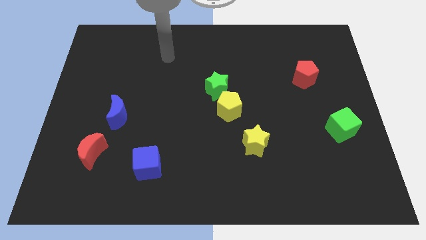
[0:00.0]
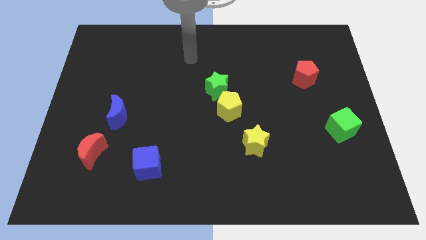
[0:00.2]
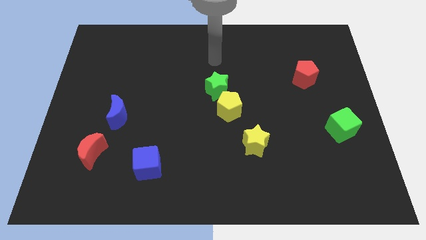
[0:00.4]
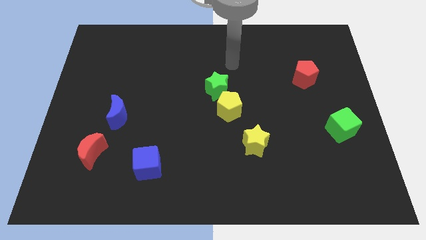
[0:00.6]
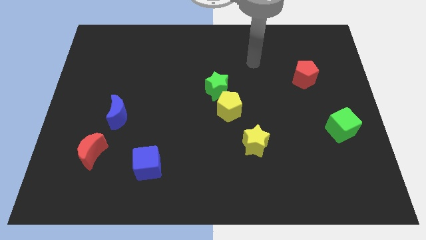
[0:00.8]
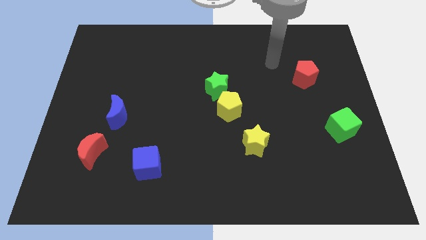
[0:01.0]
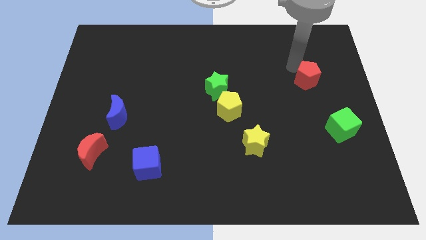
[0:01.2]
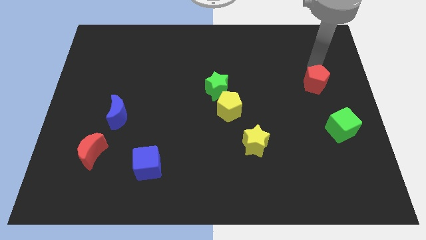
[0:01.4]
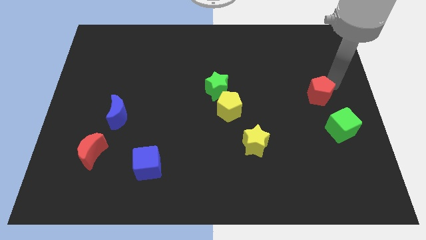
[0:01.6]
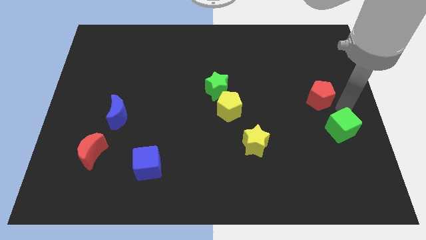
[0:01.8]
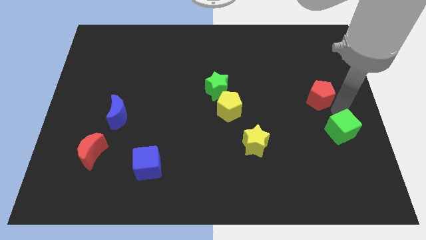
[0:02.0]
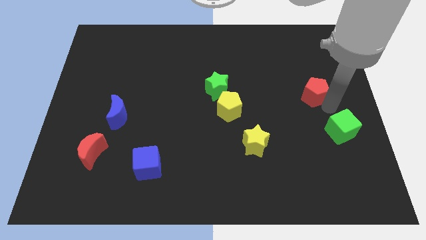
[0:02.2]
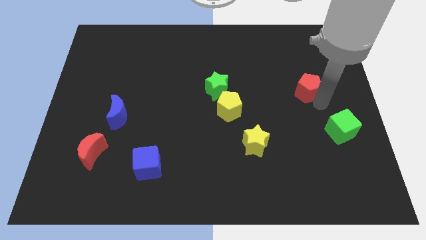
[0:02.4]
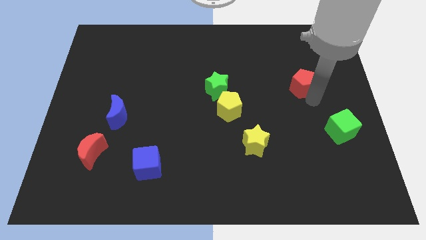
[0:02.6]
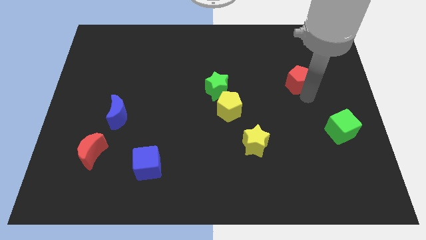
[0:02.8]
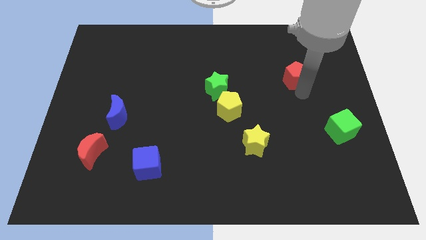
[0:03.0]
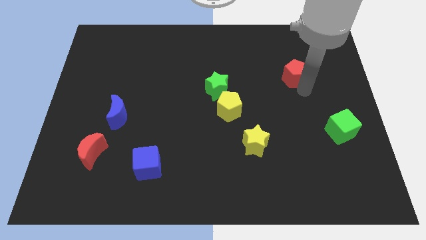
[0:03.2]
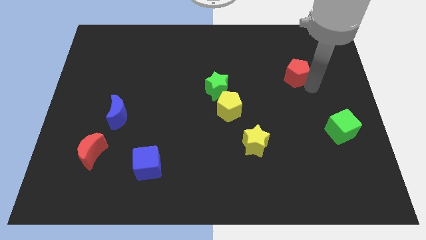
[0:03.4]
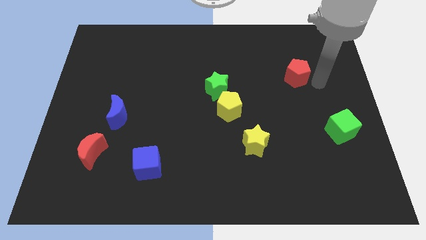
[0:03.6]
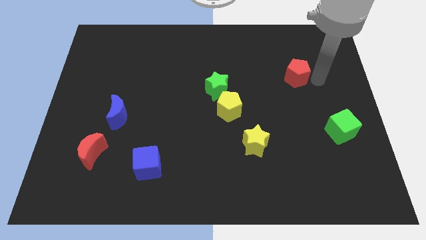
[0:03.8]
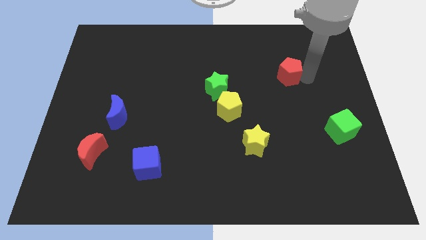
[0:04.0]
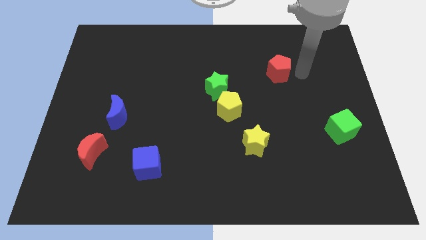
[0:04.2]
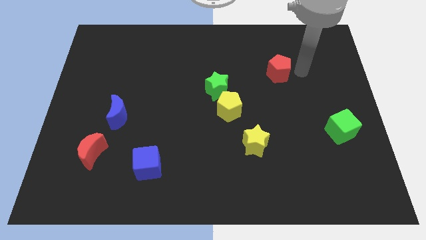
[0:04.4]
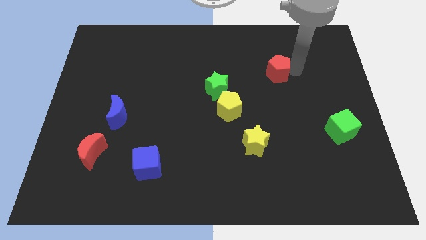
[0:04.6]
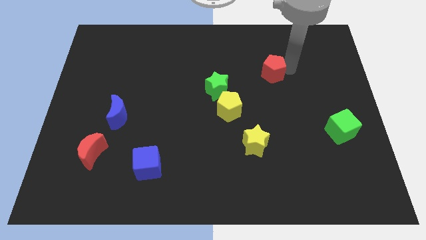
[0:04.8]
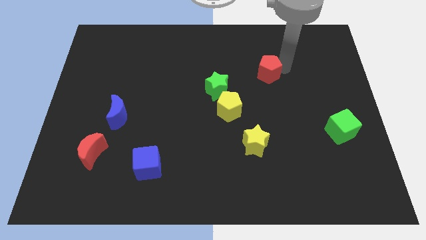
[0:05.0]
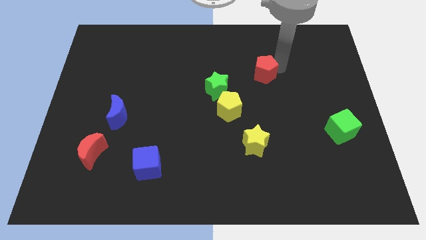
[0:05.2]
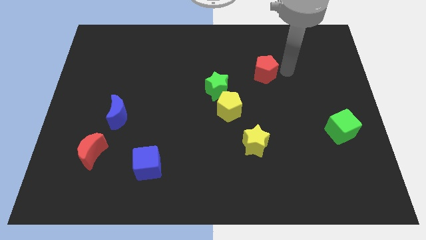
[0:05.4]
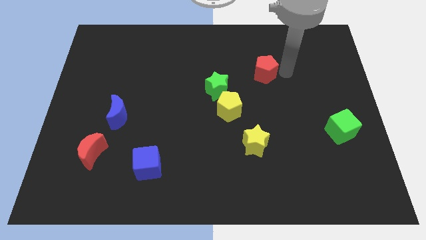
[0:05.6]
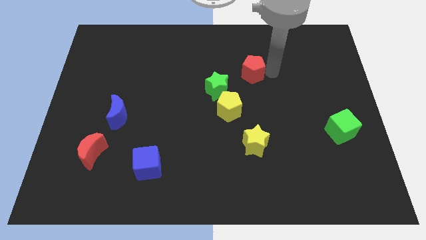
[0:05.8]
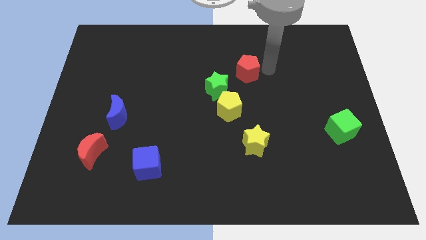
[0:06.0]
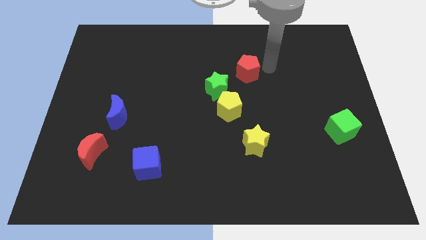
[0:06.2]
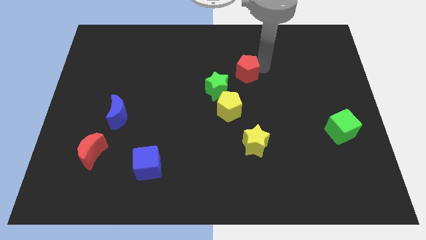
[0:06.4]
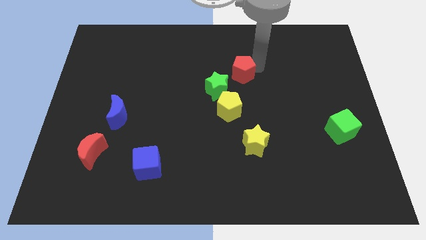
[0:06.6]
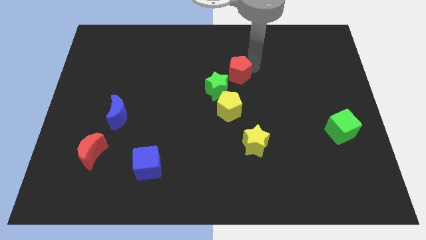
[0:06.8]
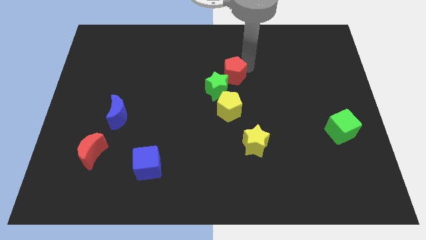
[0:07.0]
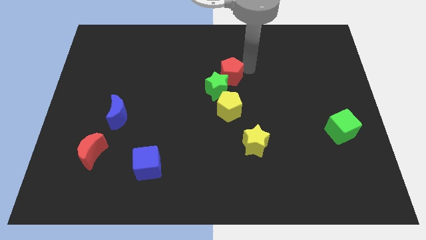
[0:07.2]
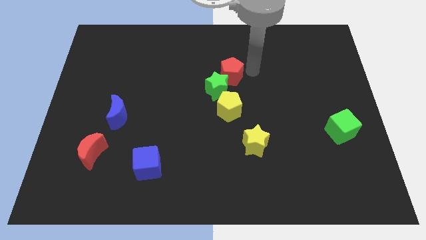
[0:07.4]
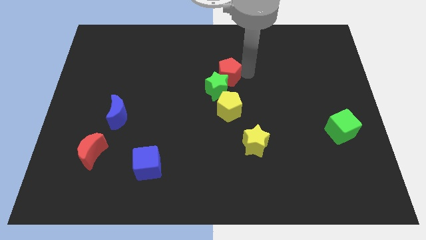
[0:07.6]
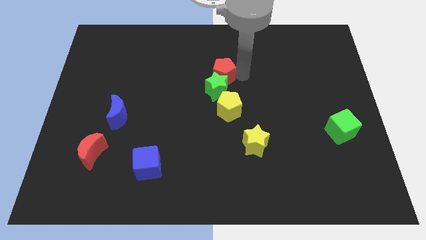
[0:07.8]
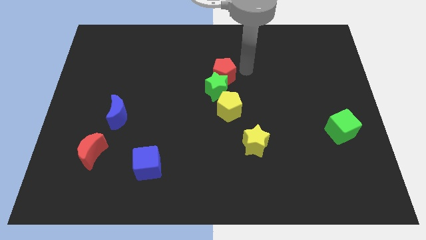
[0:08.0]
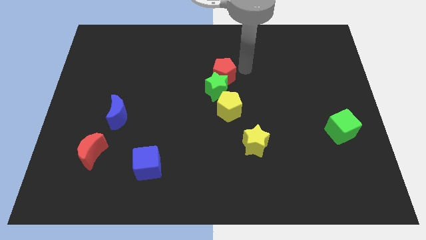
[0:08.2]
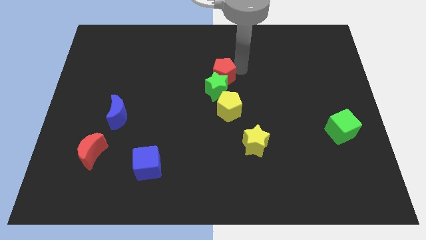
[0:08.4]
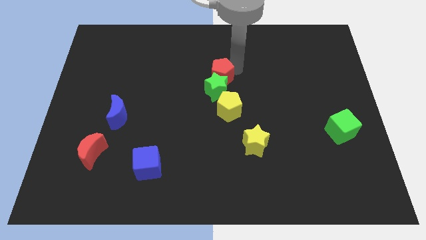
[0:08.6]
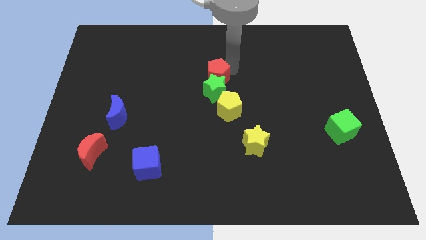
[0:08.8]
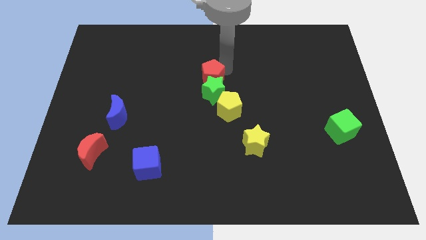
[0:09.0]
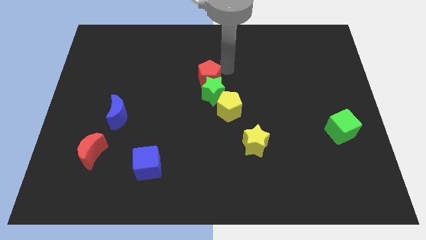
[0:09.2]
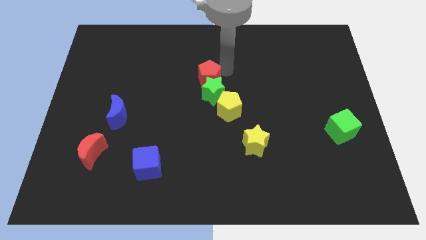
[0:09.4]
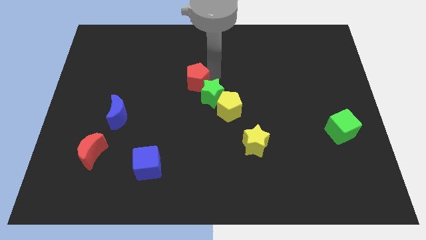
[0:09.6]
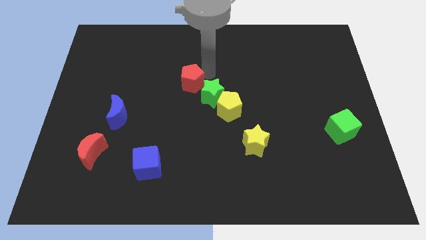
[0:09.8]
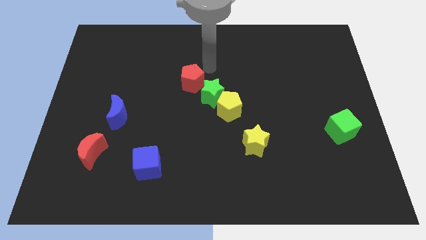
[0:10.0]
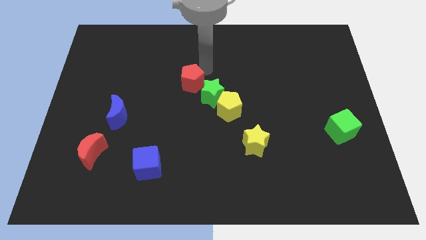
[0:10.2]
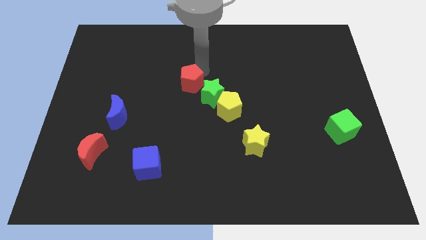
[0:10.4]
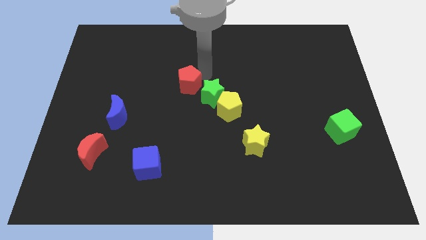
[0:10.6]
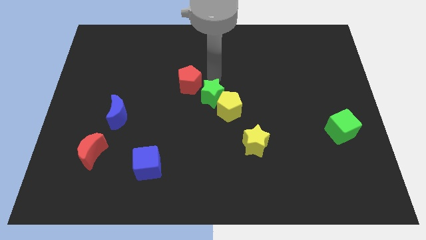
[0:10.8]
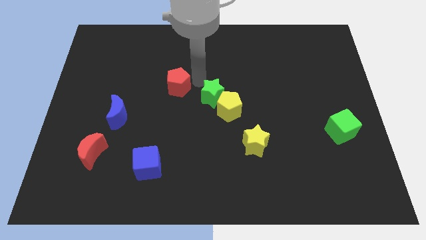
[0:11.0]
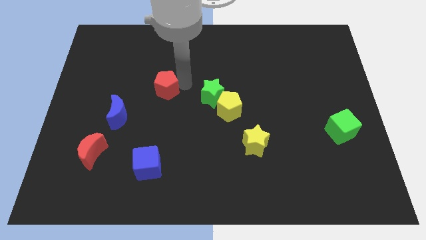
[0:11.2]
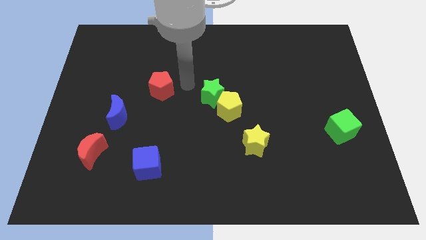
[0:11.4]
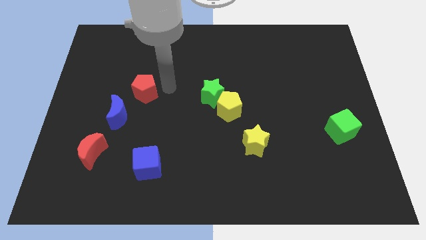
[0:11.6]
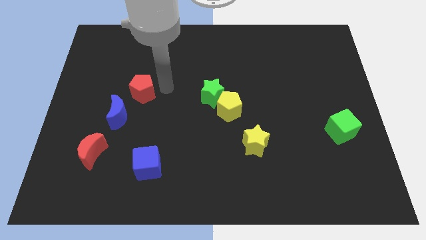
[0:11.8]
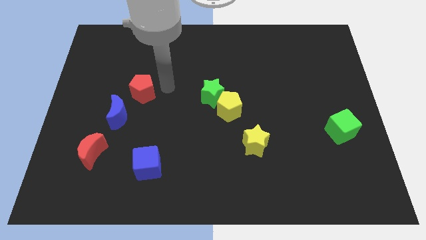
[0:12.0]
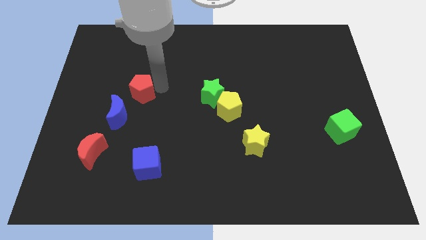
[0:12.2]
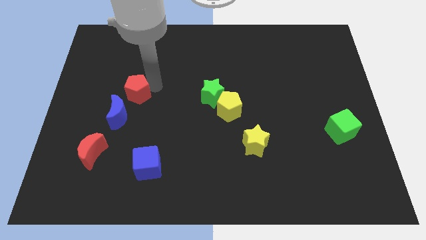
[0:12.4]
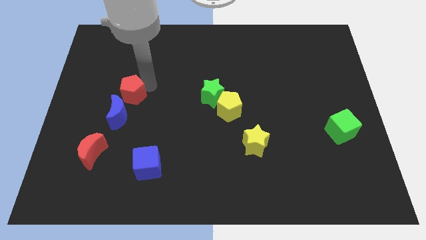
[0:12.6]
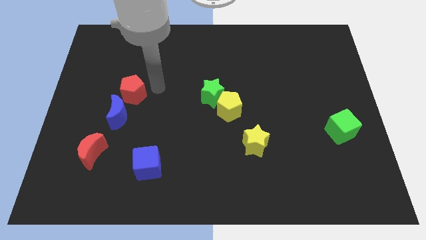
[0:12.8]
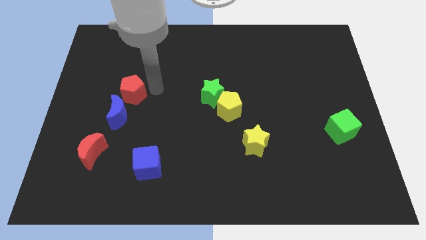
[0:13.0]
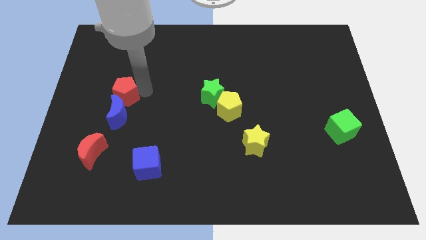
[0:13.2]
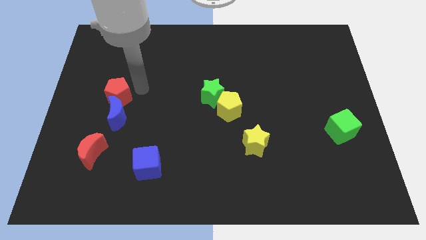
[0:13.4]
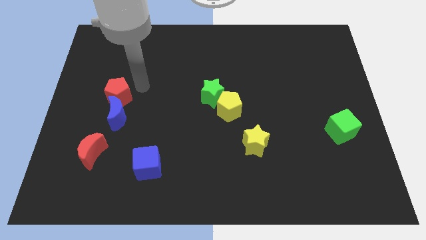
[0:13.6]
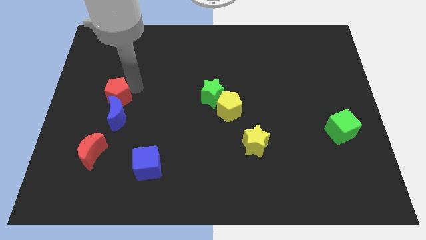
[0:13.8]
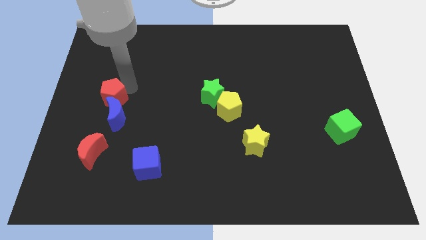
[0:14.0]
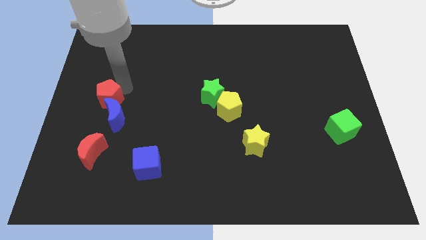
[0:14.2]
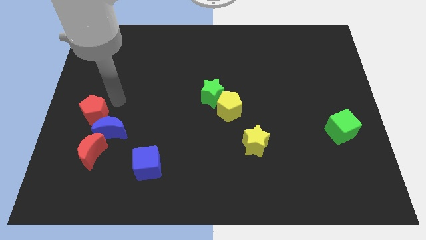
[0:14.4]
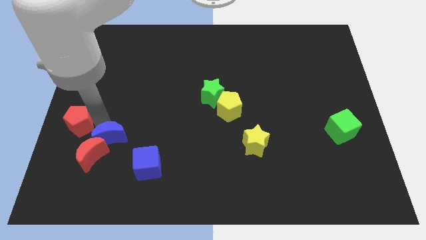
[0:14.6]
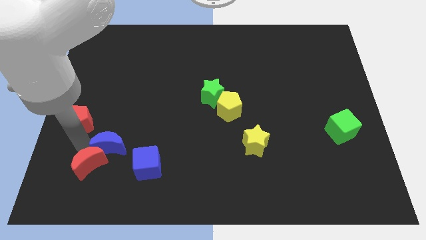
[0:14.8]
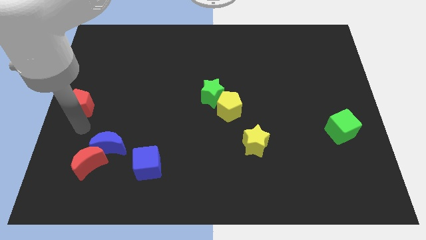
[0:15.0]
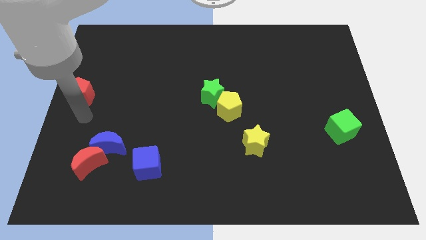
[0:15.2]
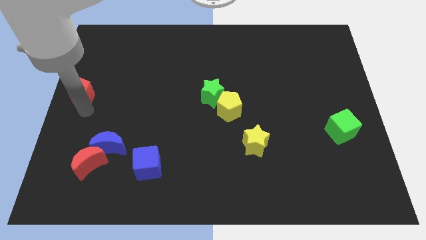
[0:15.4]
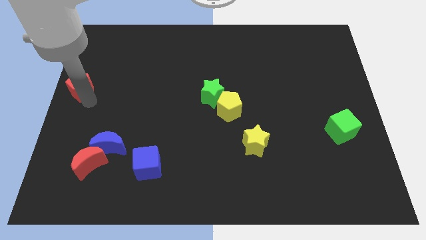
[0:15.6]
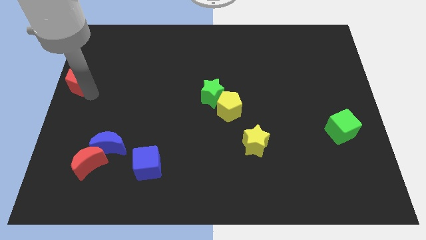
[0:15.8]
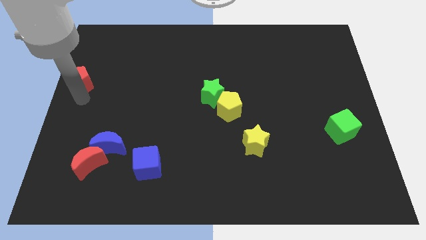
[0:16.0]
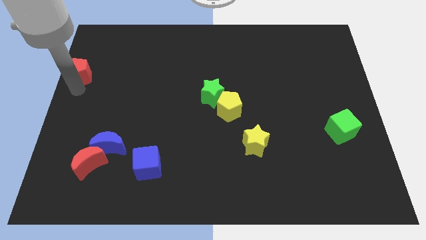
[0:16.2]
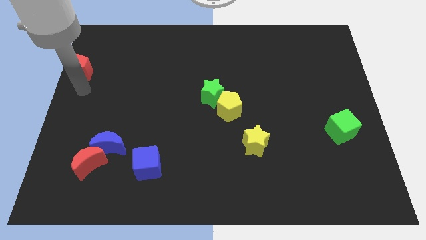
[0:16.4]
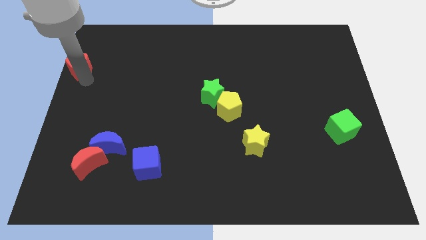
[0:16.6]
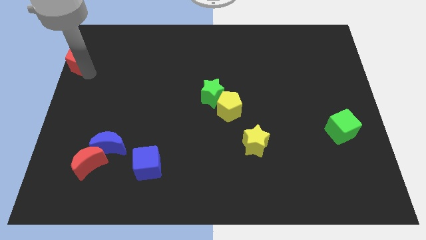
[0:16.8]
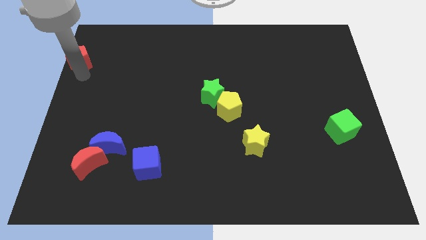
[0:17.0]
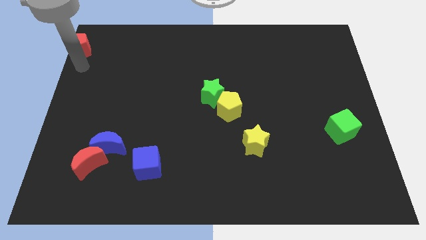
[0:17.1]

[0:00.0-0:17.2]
move the red pentagon to the top left corner
